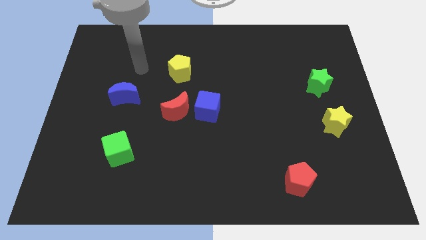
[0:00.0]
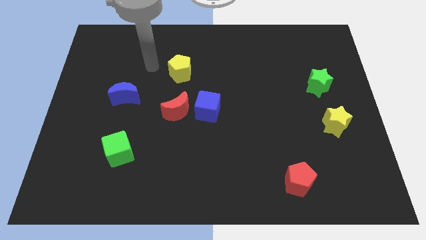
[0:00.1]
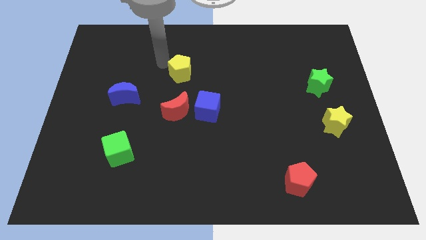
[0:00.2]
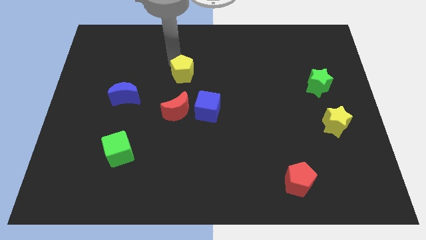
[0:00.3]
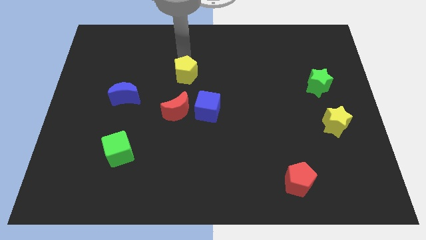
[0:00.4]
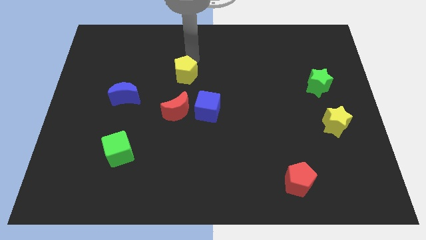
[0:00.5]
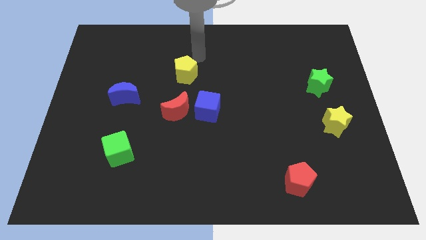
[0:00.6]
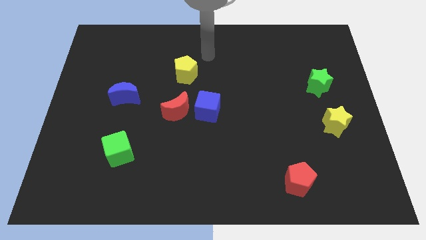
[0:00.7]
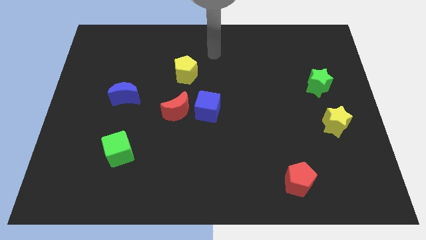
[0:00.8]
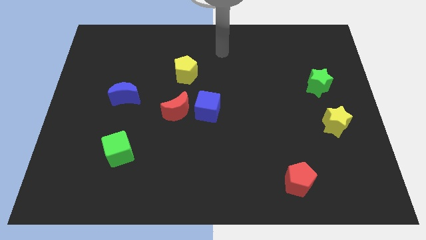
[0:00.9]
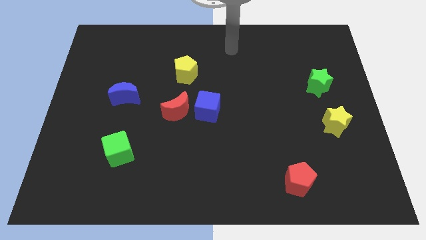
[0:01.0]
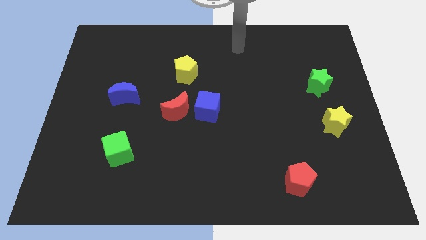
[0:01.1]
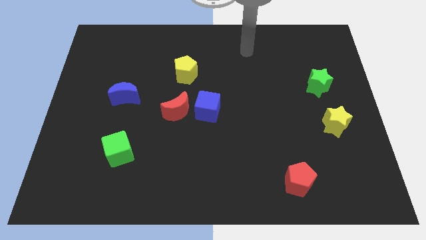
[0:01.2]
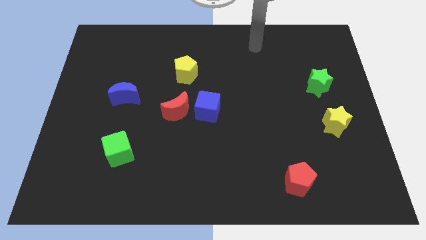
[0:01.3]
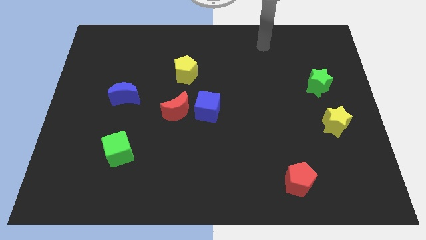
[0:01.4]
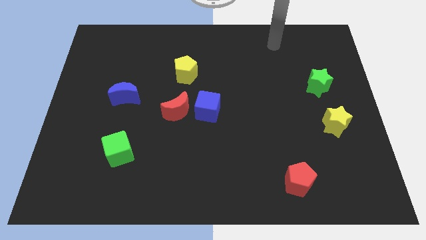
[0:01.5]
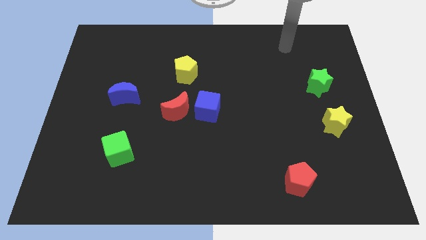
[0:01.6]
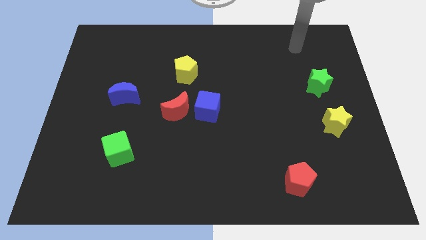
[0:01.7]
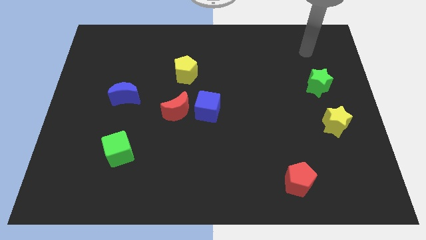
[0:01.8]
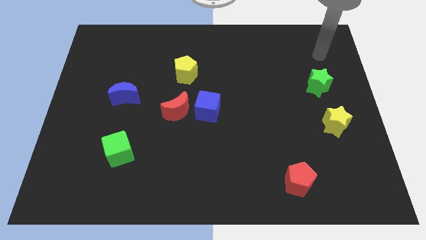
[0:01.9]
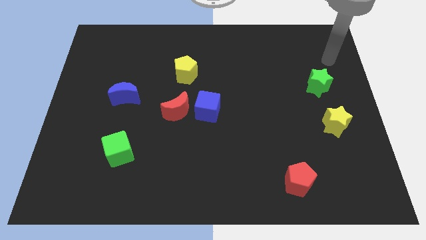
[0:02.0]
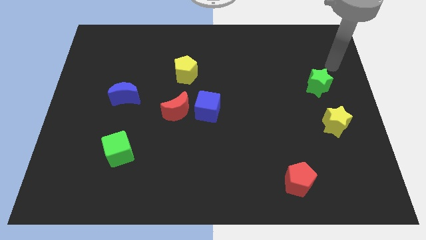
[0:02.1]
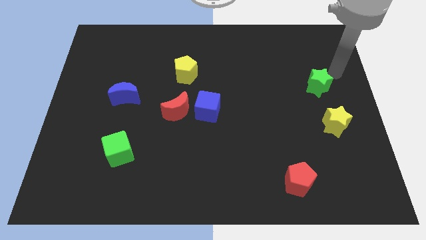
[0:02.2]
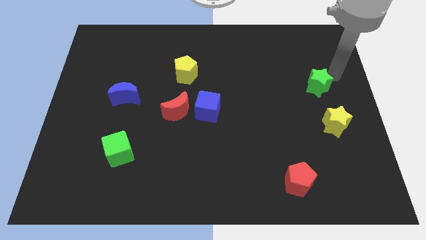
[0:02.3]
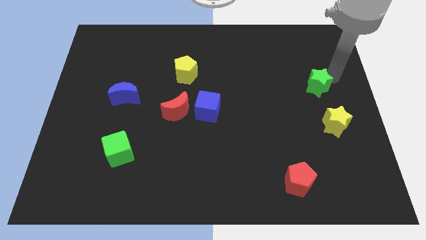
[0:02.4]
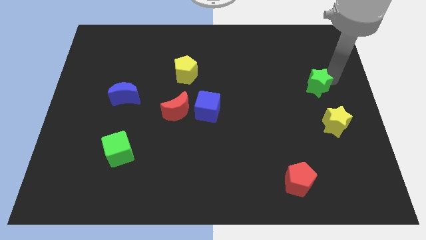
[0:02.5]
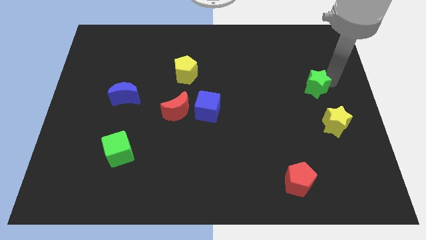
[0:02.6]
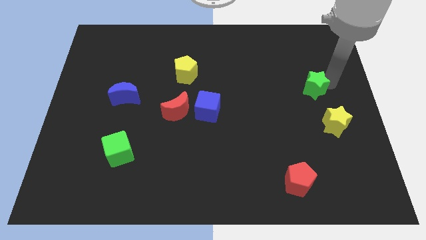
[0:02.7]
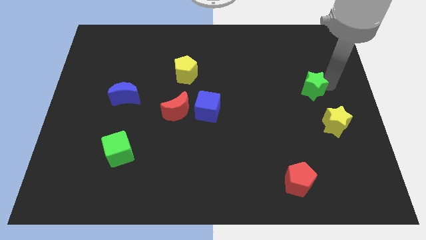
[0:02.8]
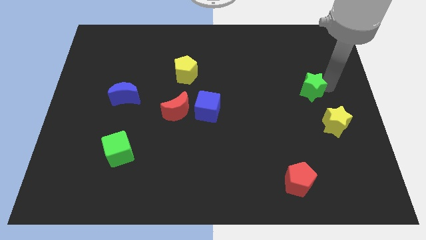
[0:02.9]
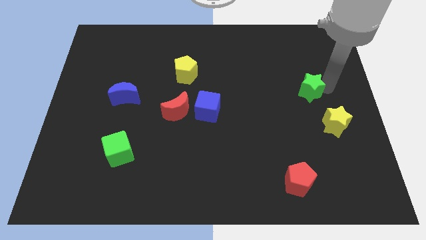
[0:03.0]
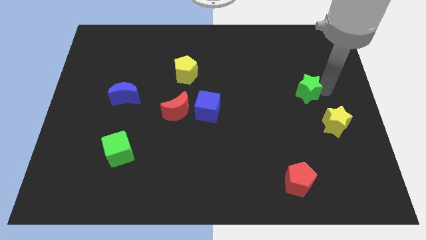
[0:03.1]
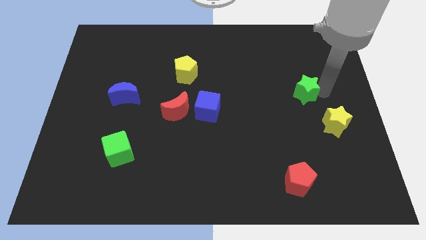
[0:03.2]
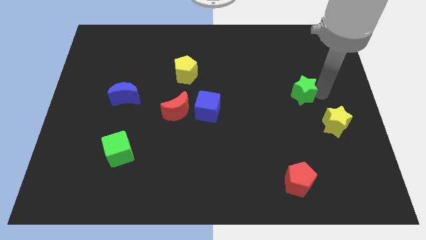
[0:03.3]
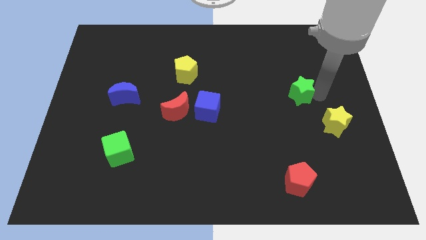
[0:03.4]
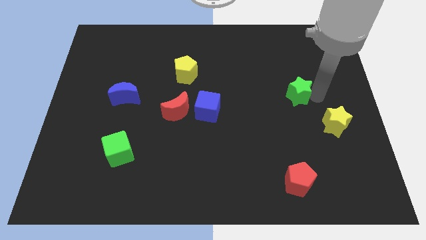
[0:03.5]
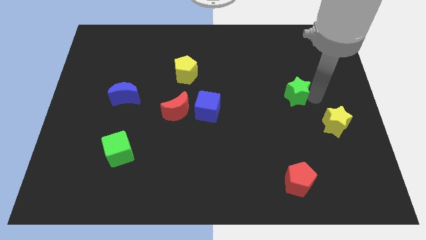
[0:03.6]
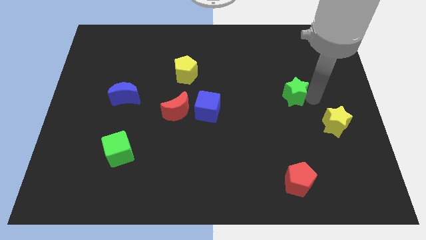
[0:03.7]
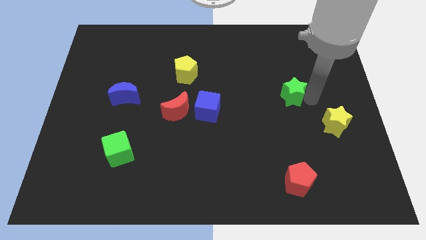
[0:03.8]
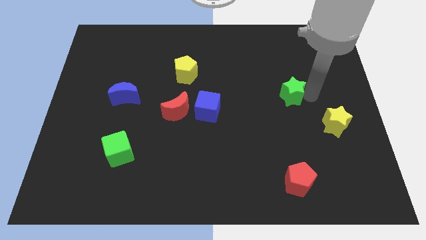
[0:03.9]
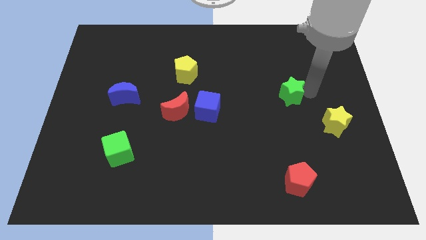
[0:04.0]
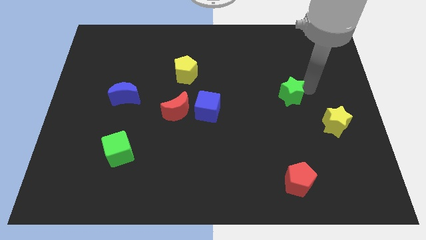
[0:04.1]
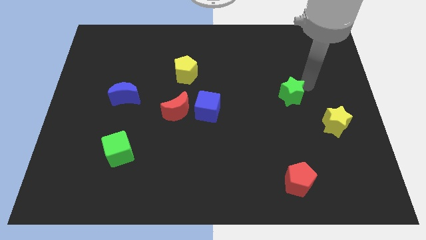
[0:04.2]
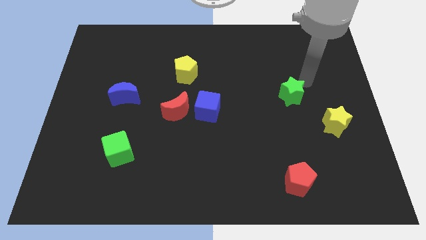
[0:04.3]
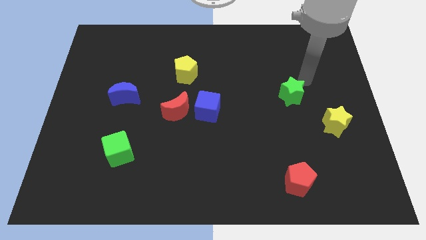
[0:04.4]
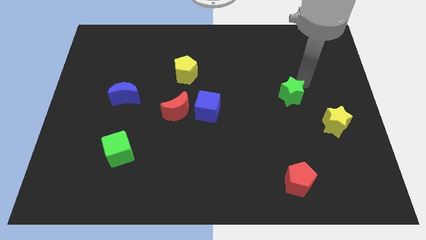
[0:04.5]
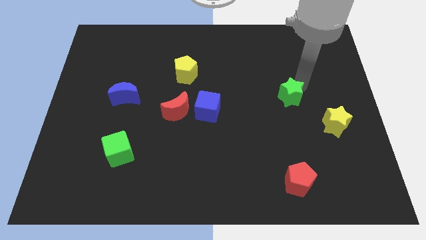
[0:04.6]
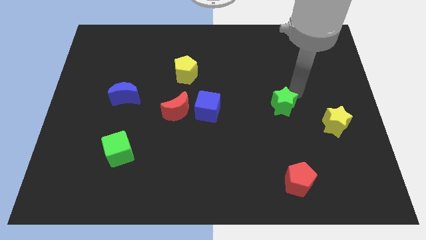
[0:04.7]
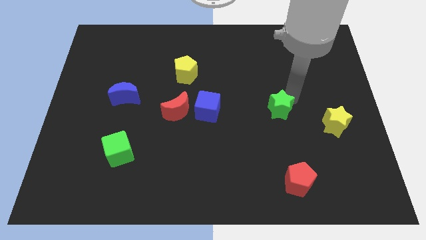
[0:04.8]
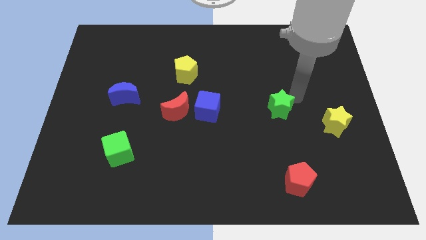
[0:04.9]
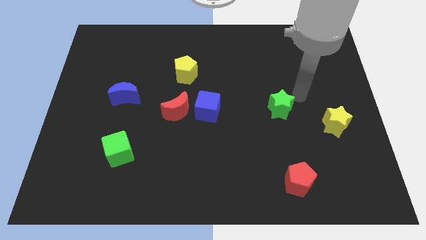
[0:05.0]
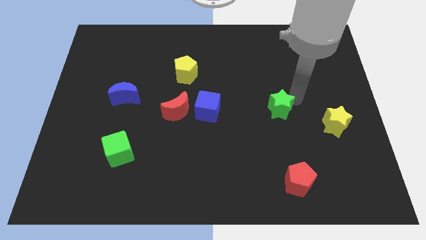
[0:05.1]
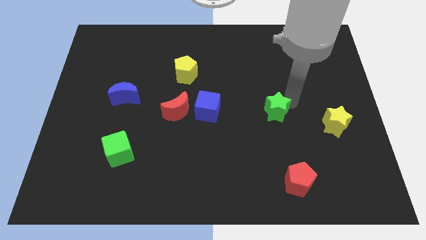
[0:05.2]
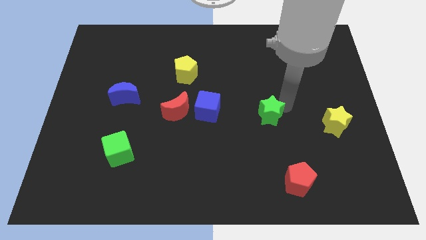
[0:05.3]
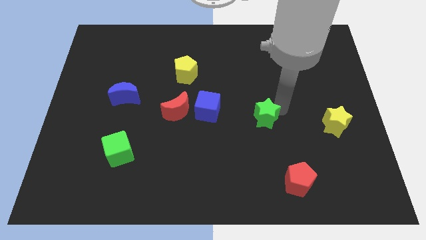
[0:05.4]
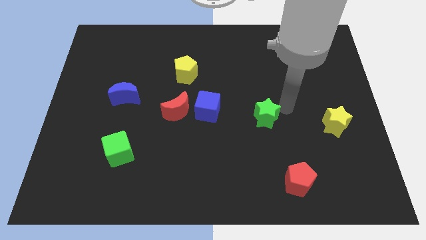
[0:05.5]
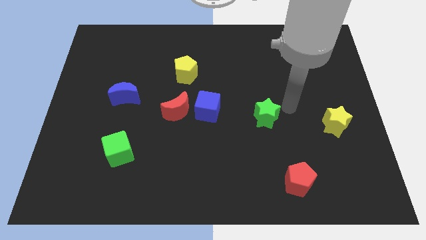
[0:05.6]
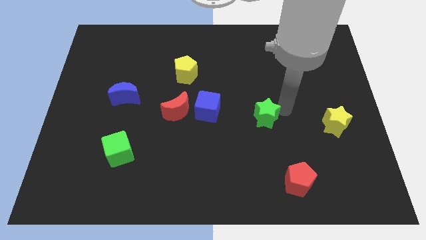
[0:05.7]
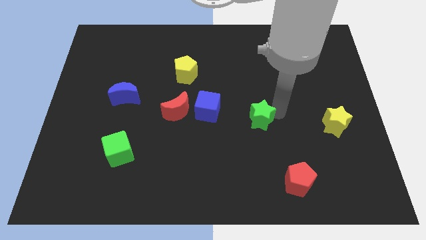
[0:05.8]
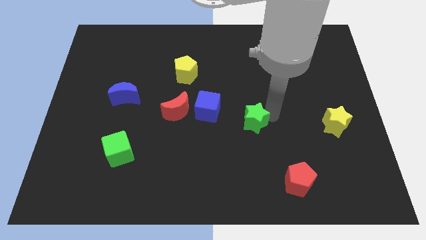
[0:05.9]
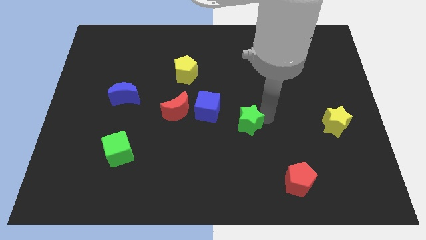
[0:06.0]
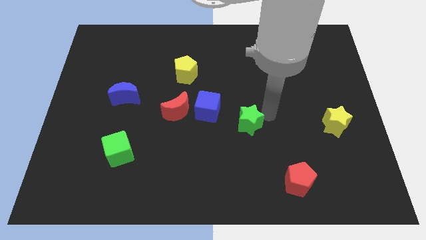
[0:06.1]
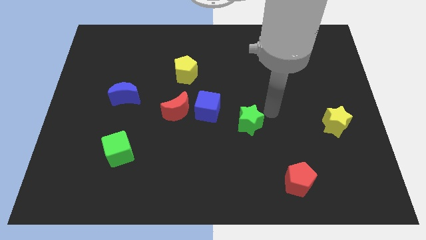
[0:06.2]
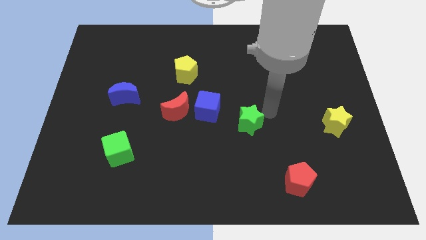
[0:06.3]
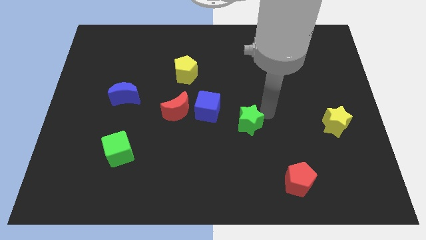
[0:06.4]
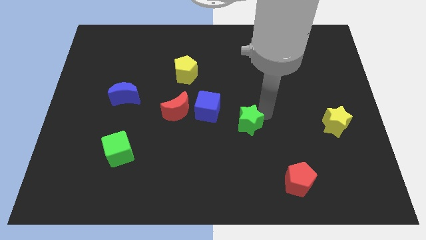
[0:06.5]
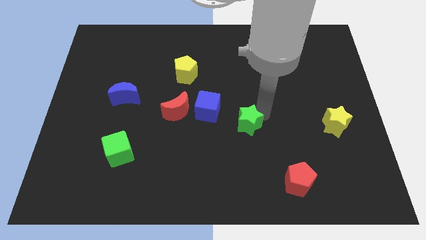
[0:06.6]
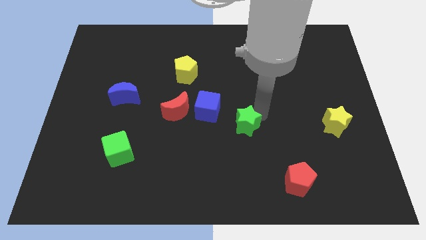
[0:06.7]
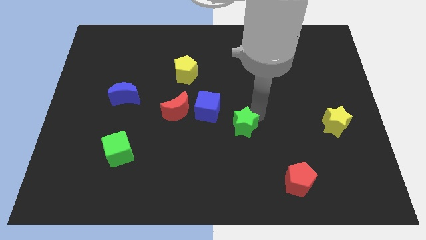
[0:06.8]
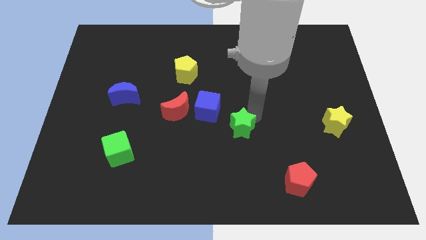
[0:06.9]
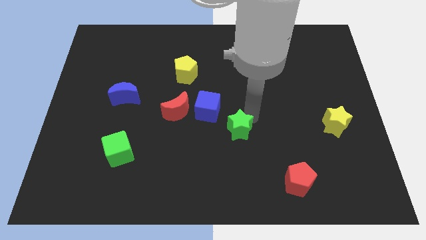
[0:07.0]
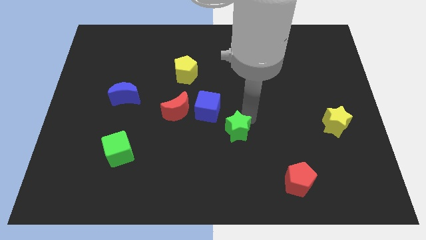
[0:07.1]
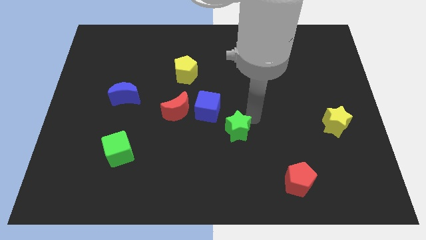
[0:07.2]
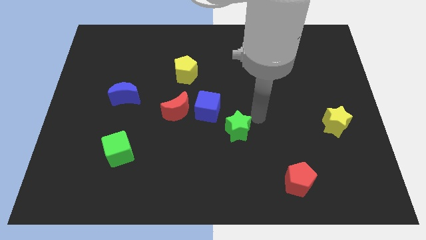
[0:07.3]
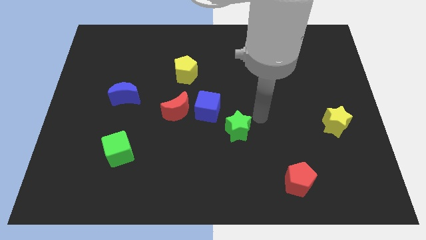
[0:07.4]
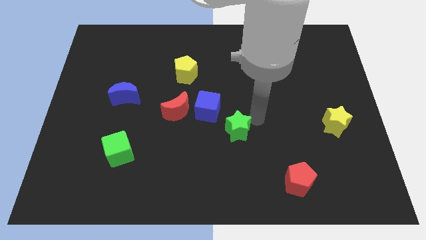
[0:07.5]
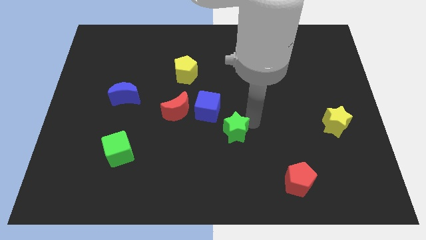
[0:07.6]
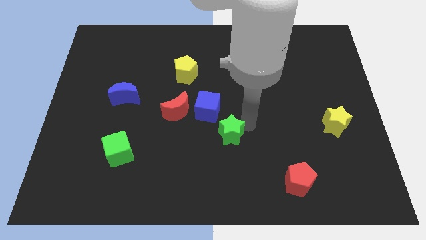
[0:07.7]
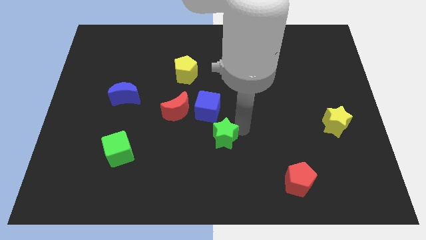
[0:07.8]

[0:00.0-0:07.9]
push the green star to the bottom side of the blue cube
